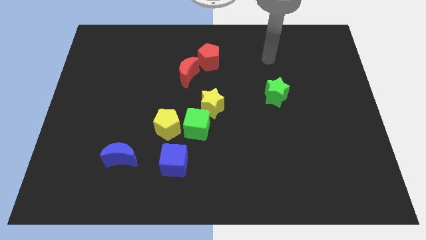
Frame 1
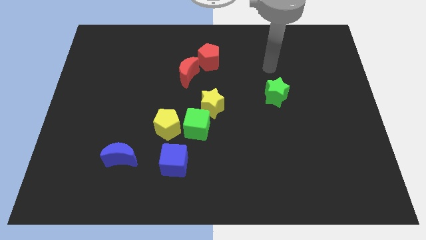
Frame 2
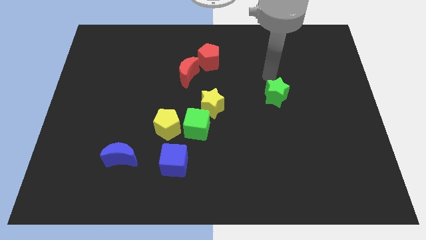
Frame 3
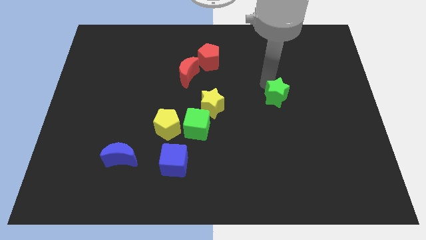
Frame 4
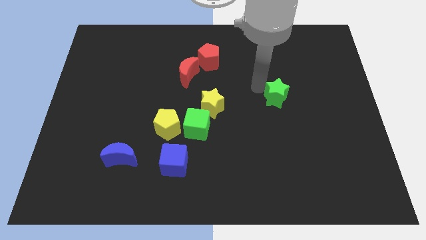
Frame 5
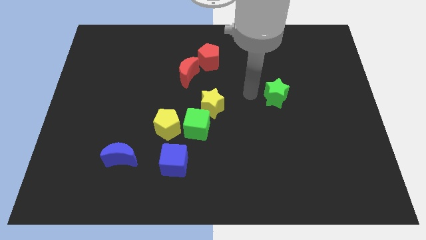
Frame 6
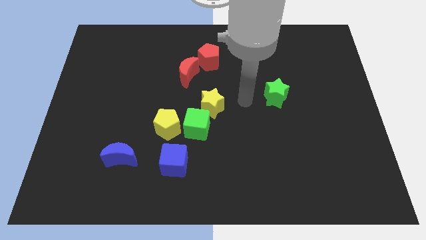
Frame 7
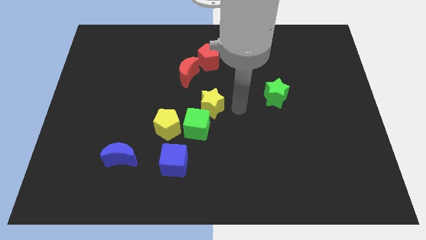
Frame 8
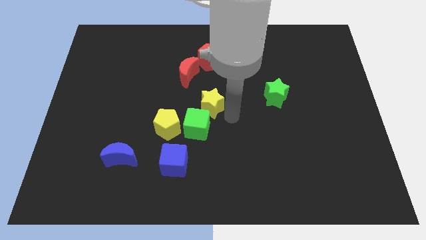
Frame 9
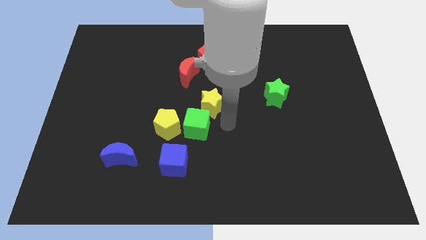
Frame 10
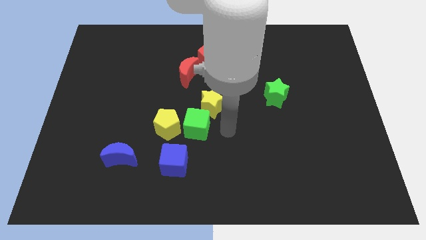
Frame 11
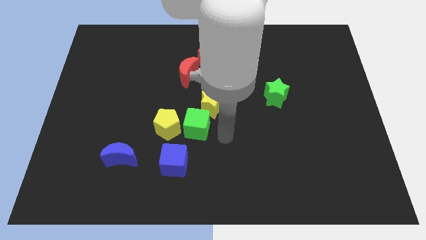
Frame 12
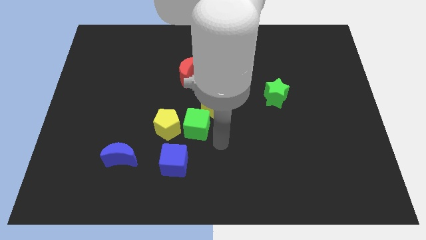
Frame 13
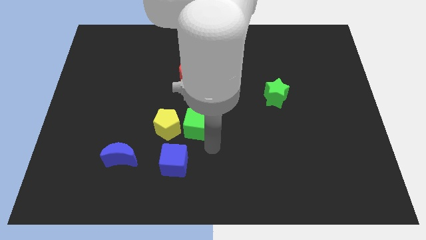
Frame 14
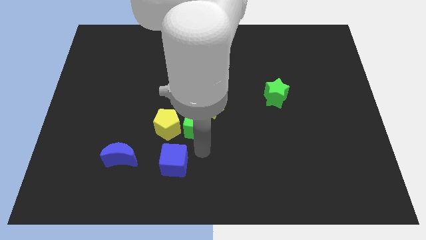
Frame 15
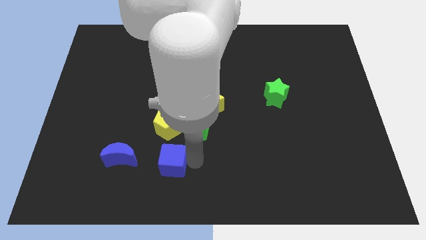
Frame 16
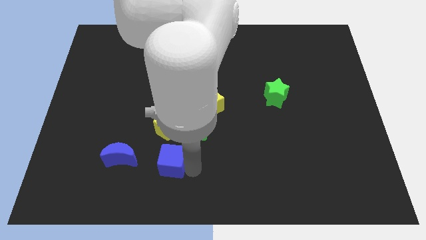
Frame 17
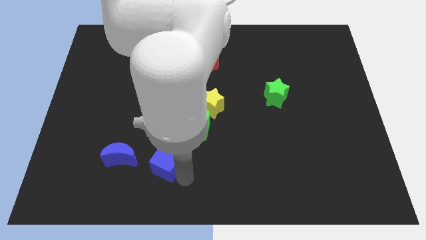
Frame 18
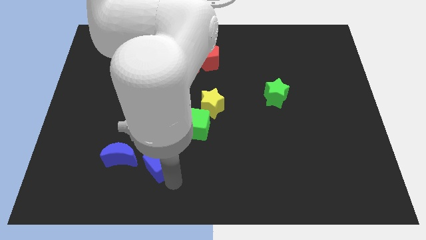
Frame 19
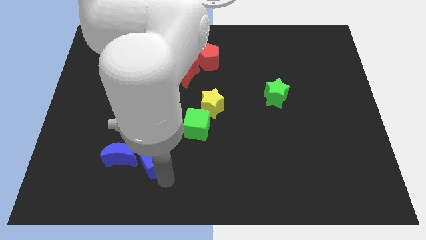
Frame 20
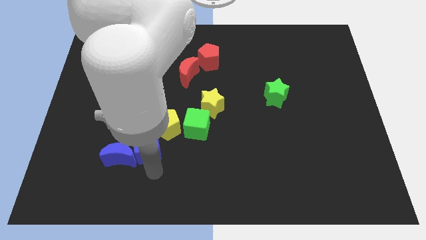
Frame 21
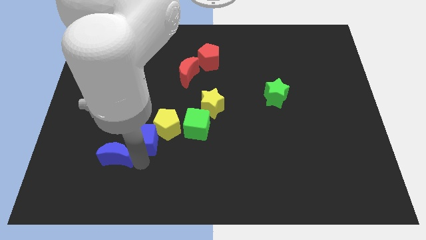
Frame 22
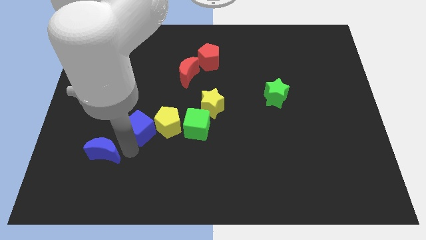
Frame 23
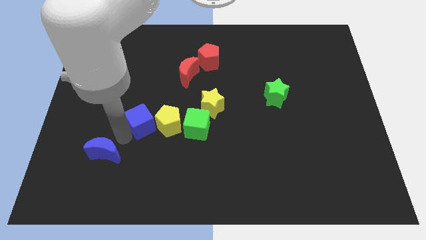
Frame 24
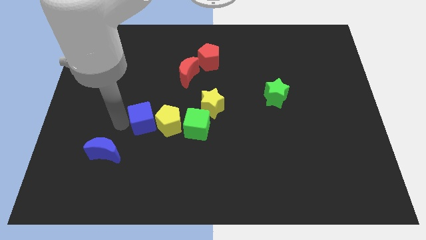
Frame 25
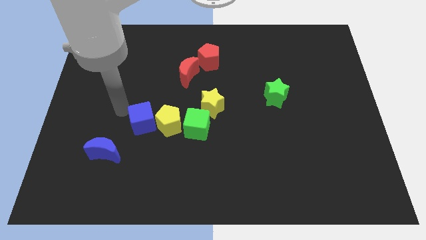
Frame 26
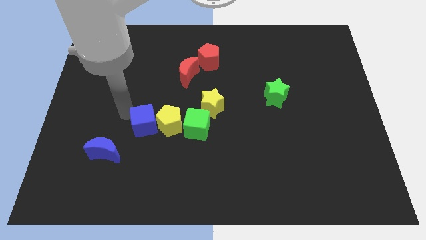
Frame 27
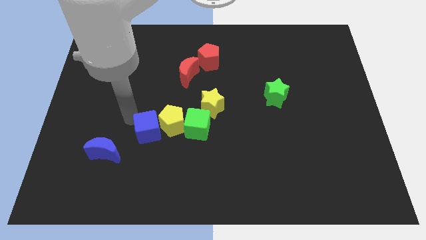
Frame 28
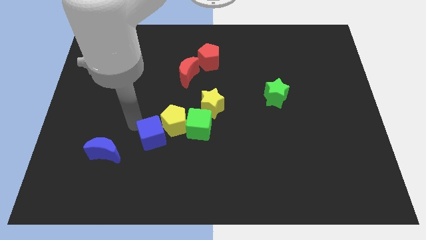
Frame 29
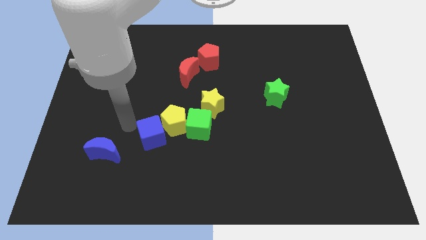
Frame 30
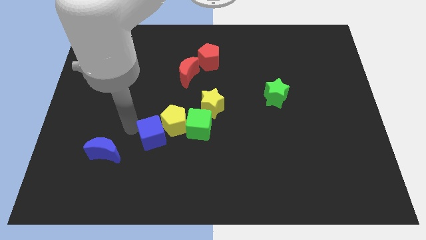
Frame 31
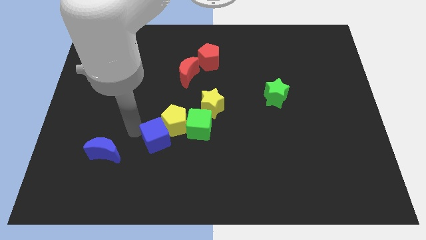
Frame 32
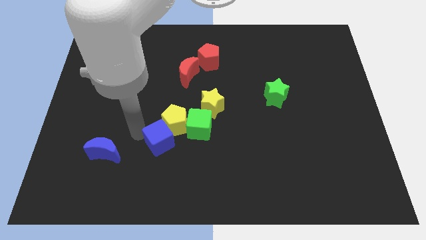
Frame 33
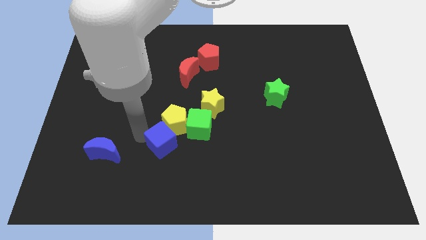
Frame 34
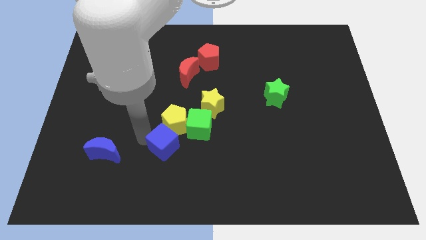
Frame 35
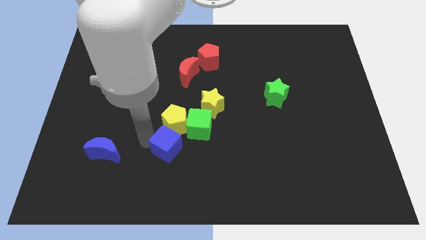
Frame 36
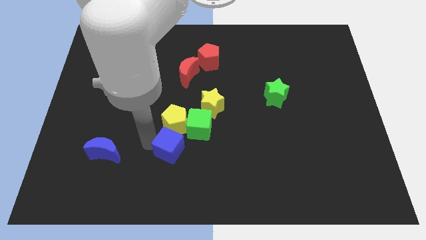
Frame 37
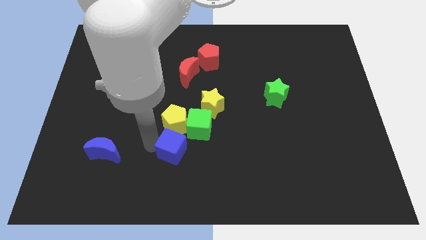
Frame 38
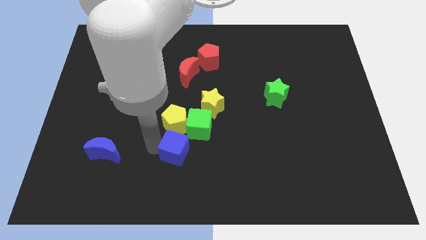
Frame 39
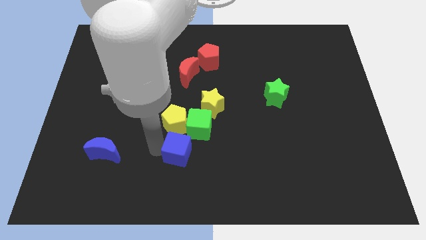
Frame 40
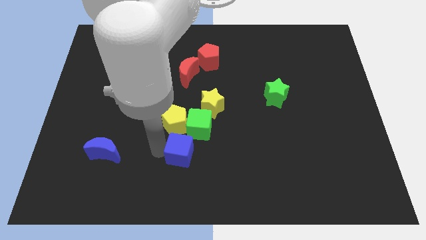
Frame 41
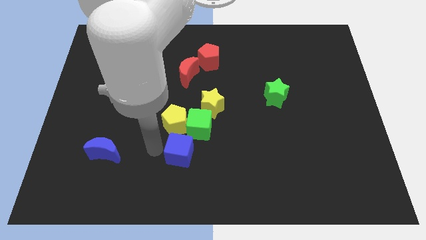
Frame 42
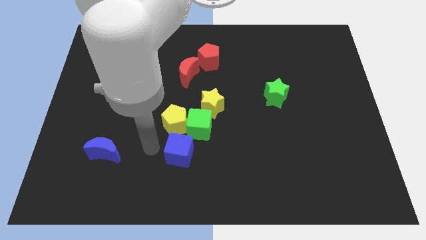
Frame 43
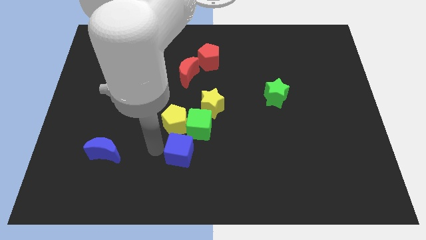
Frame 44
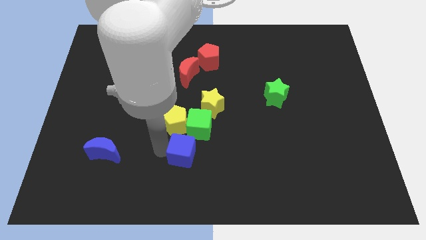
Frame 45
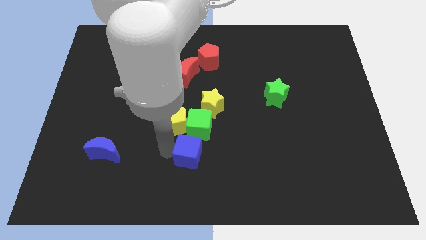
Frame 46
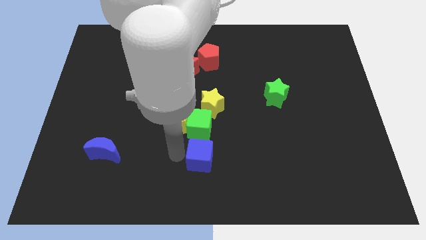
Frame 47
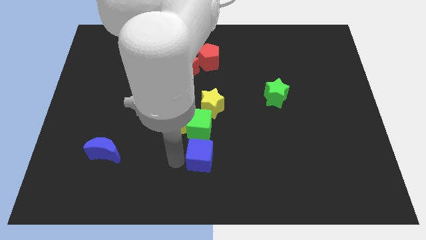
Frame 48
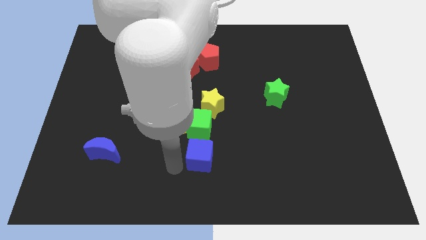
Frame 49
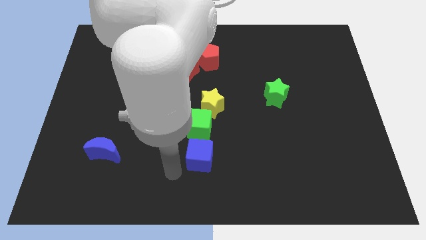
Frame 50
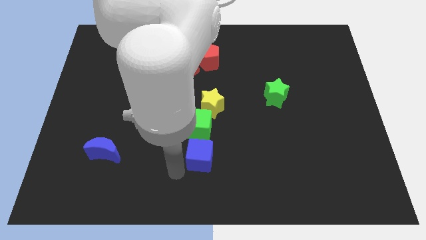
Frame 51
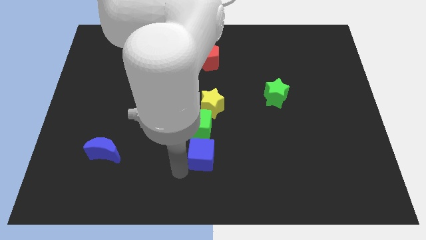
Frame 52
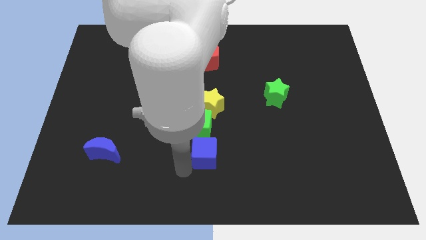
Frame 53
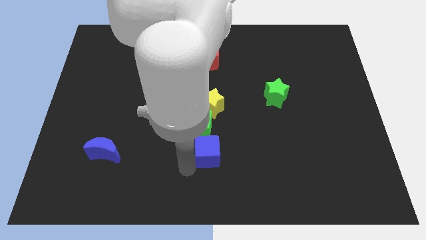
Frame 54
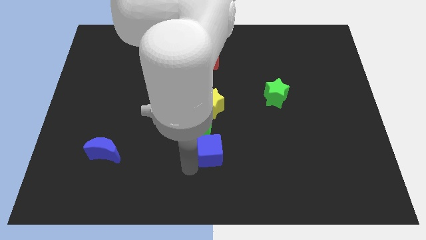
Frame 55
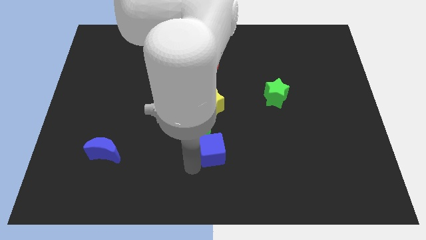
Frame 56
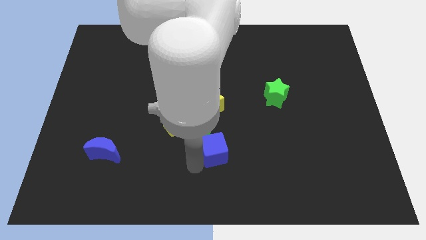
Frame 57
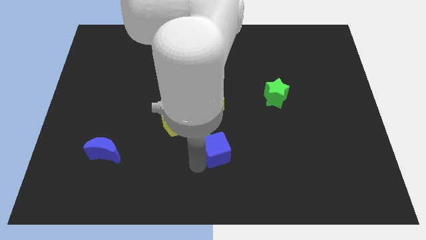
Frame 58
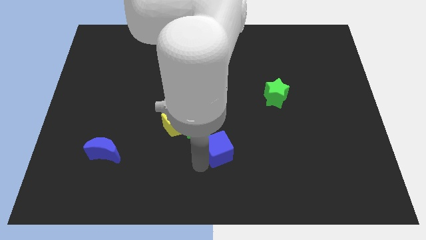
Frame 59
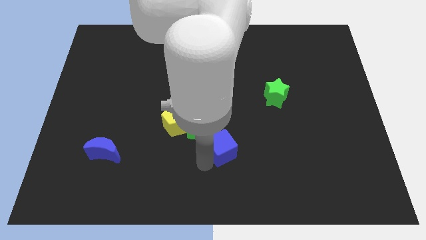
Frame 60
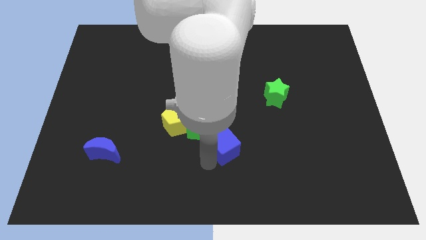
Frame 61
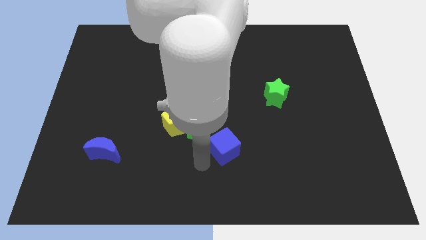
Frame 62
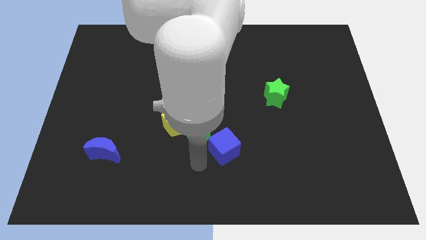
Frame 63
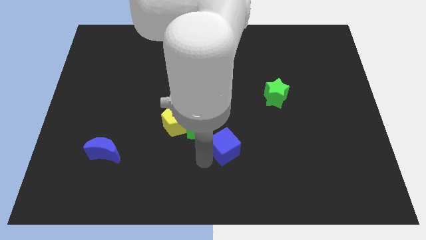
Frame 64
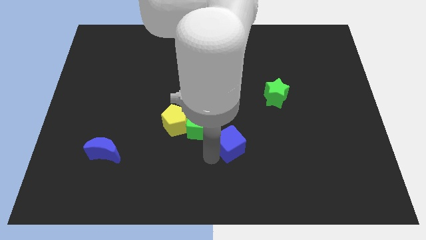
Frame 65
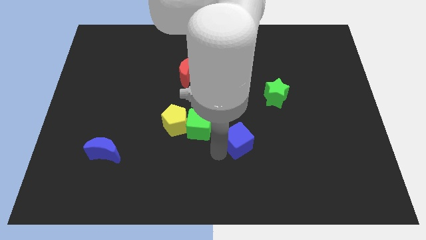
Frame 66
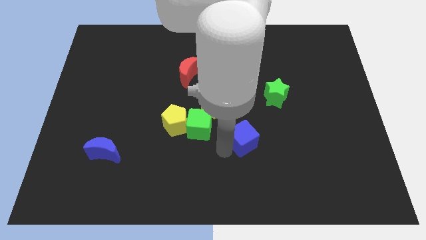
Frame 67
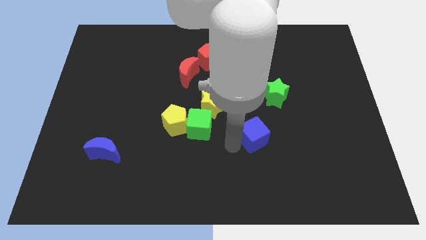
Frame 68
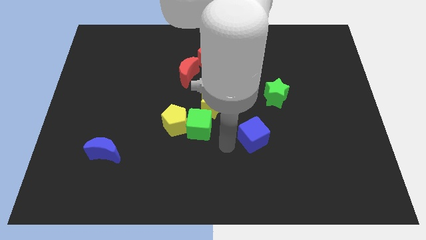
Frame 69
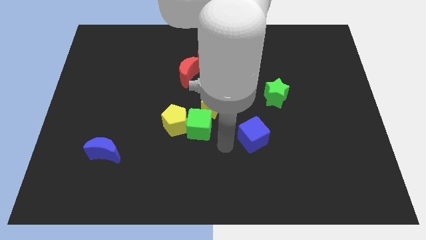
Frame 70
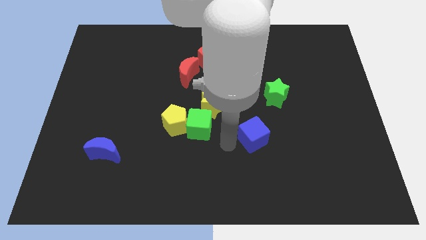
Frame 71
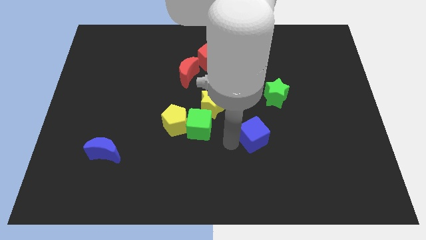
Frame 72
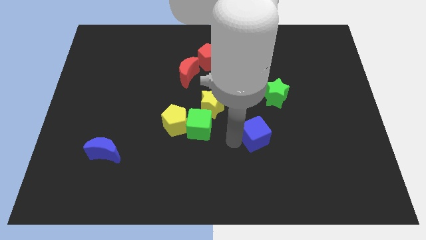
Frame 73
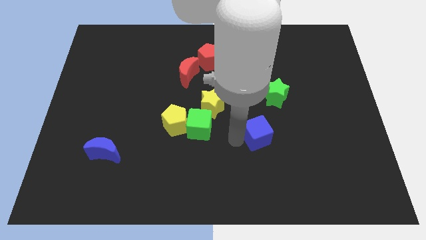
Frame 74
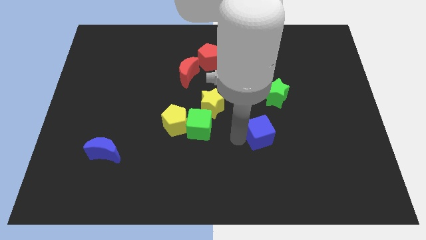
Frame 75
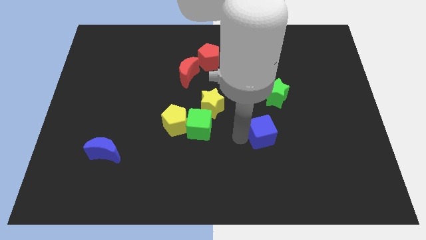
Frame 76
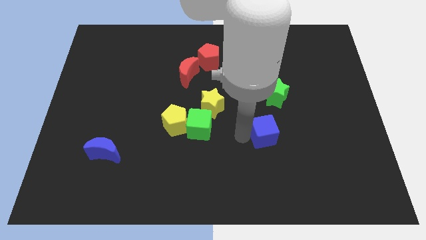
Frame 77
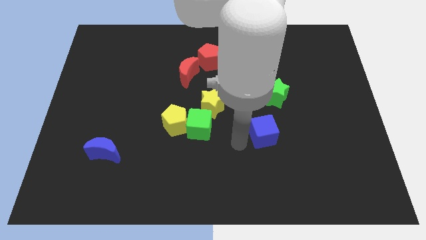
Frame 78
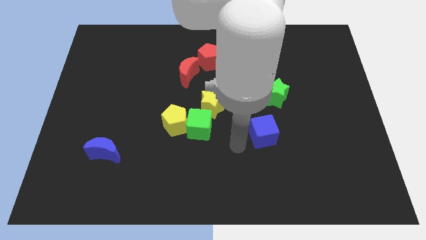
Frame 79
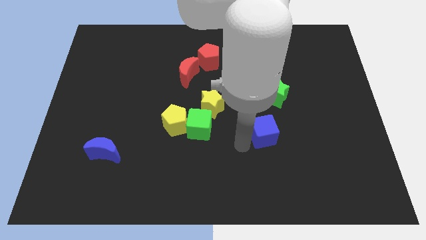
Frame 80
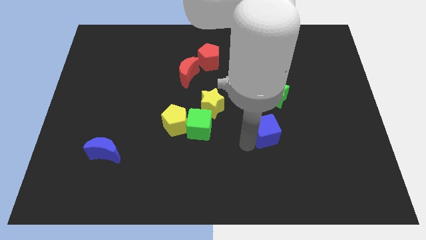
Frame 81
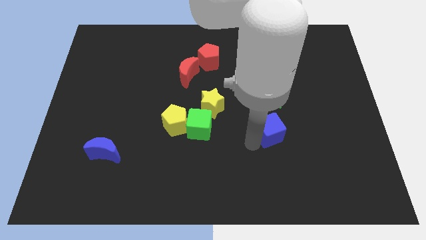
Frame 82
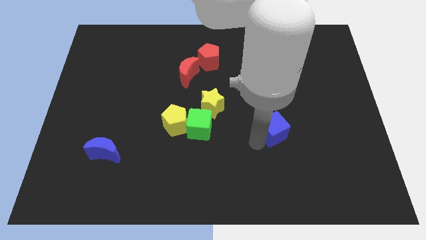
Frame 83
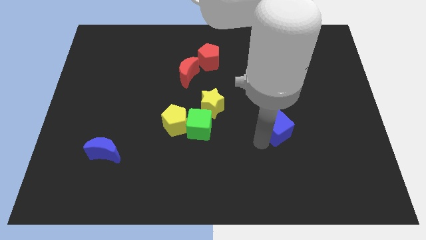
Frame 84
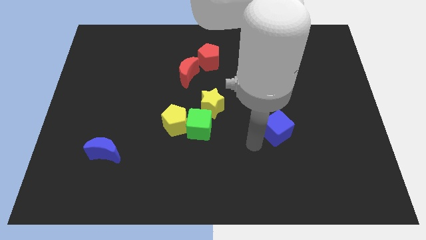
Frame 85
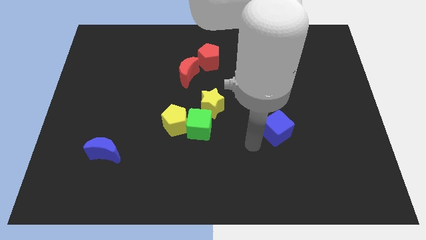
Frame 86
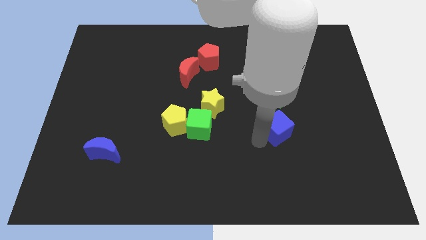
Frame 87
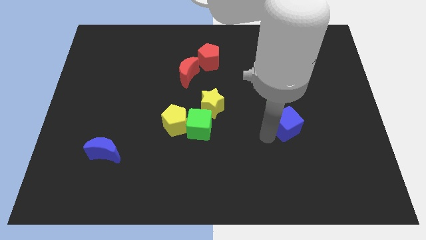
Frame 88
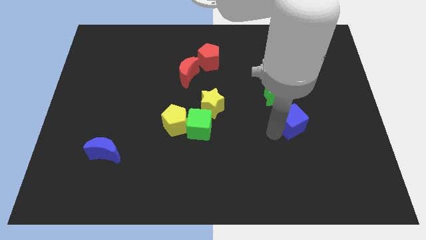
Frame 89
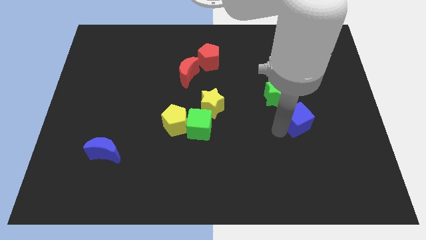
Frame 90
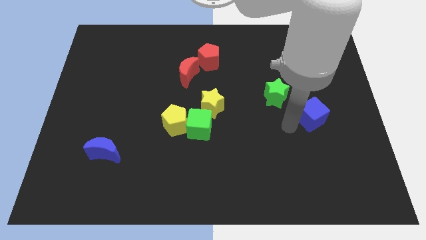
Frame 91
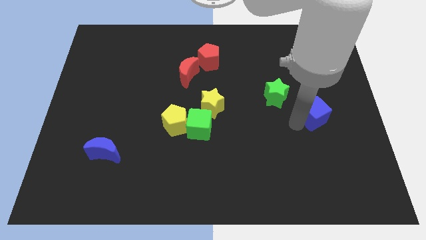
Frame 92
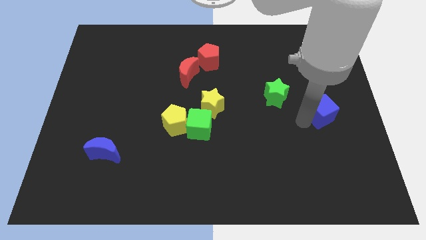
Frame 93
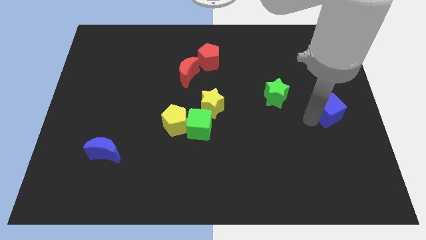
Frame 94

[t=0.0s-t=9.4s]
push the blue cube to the center right
